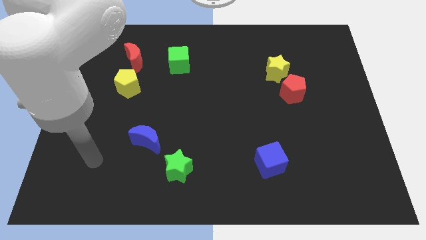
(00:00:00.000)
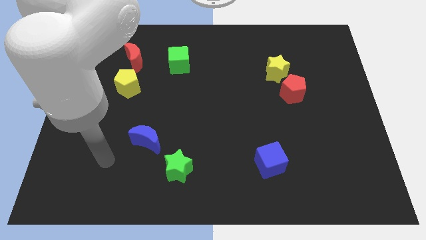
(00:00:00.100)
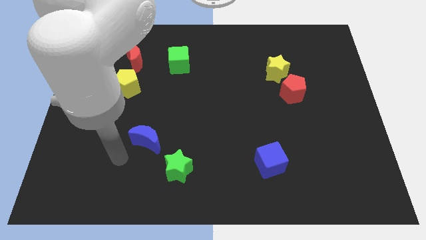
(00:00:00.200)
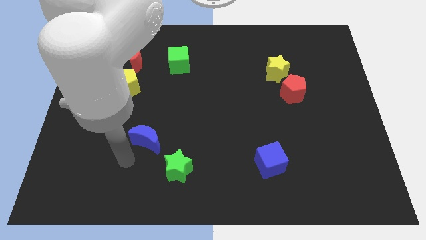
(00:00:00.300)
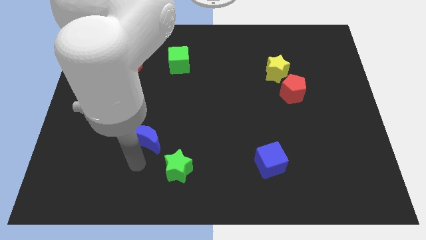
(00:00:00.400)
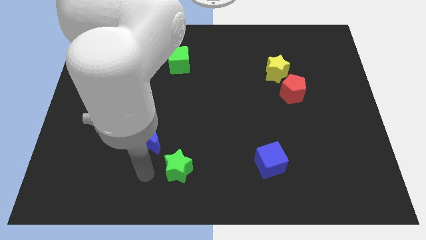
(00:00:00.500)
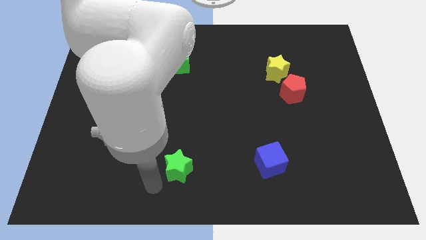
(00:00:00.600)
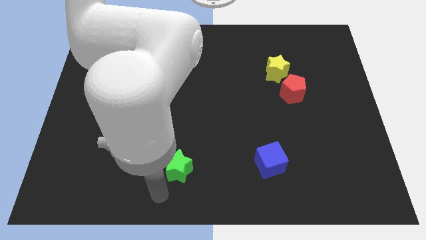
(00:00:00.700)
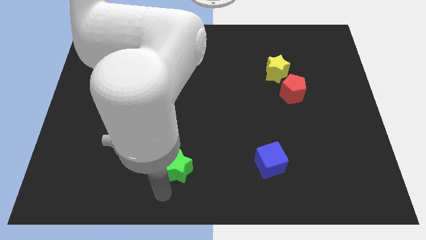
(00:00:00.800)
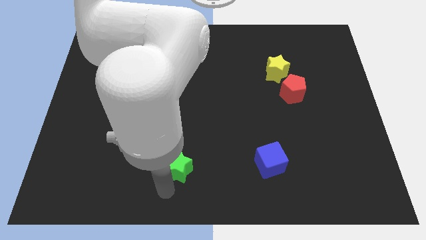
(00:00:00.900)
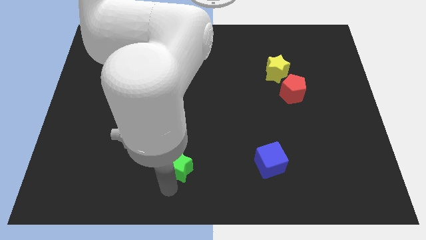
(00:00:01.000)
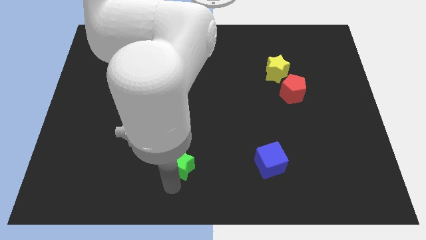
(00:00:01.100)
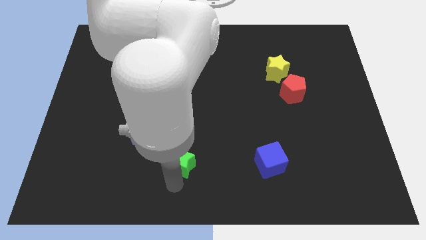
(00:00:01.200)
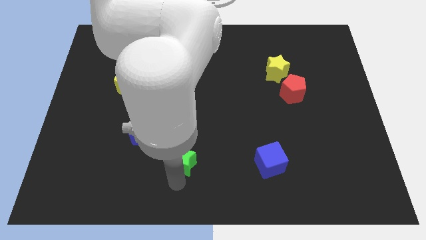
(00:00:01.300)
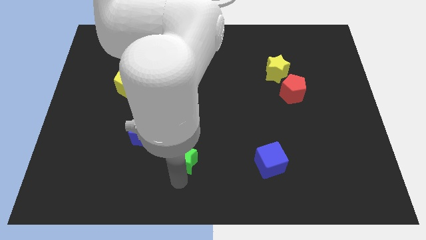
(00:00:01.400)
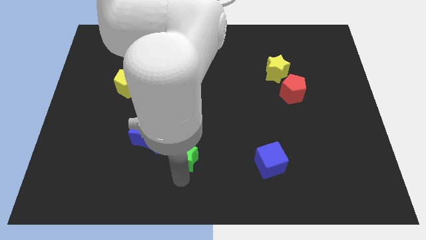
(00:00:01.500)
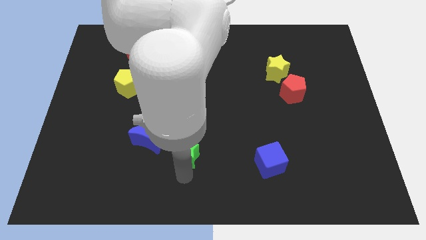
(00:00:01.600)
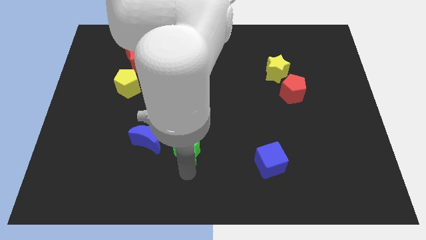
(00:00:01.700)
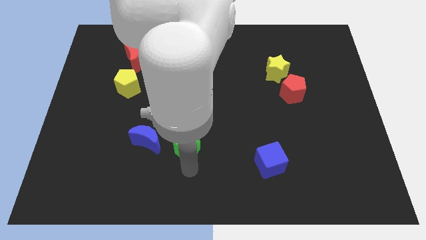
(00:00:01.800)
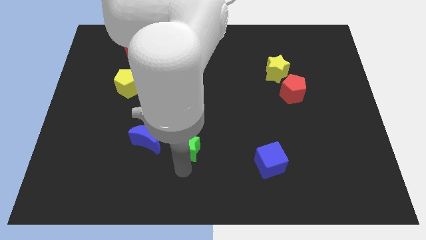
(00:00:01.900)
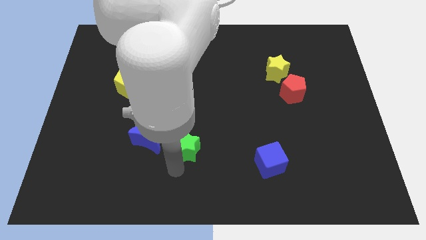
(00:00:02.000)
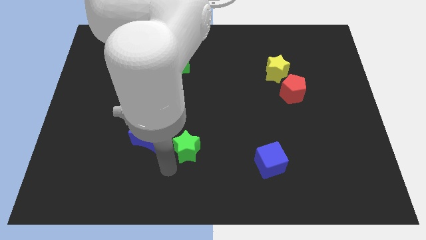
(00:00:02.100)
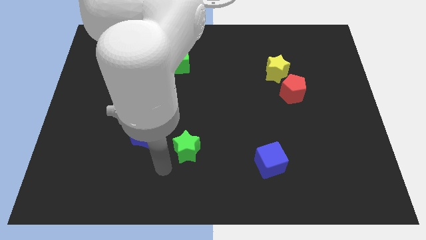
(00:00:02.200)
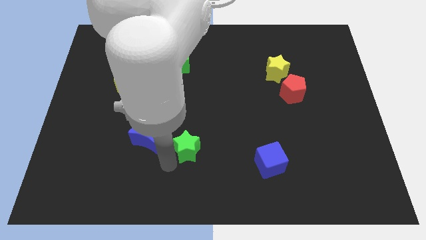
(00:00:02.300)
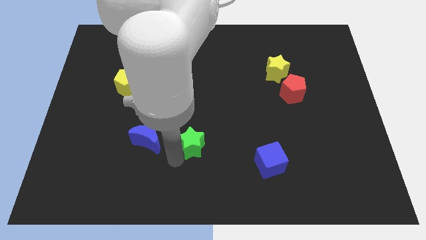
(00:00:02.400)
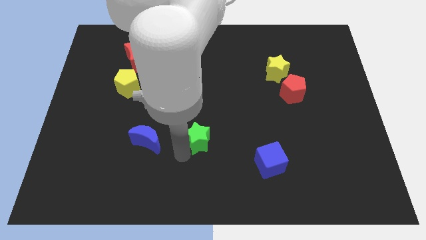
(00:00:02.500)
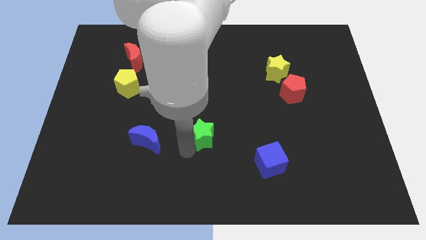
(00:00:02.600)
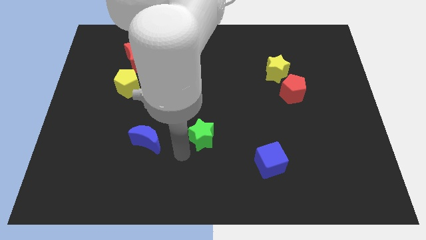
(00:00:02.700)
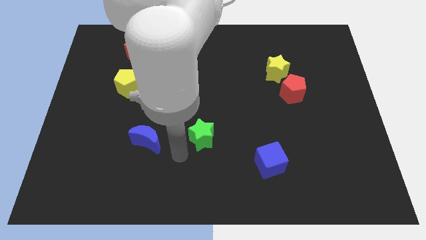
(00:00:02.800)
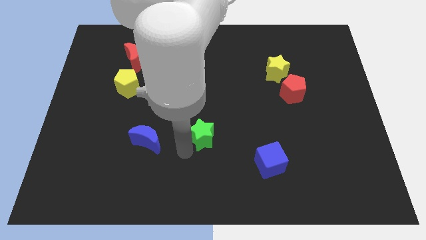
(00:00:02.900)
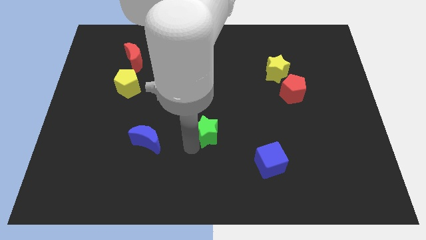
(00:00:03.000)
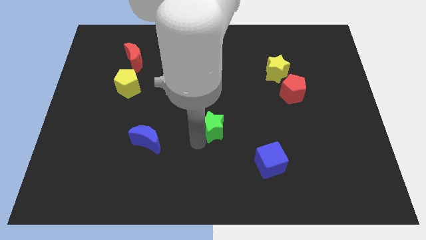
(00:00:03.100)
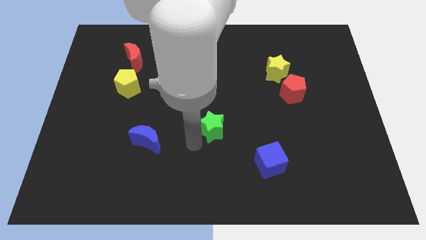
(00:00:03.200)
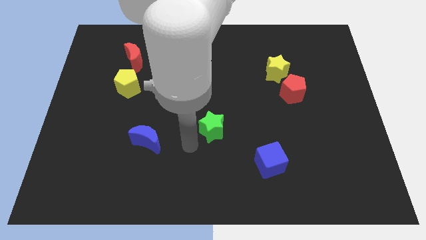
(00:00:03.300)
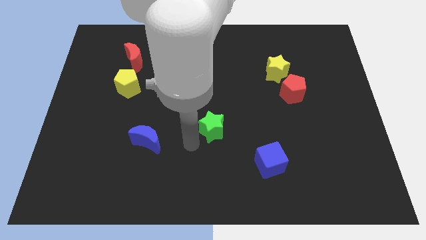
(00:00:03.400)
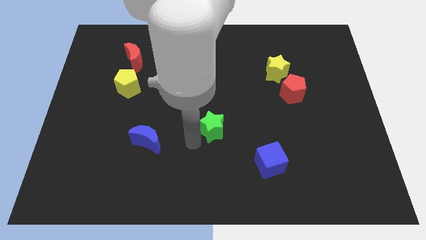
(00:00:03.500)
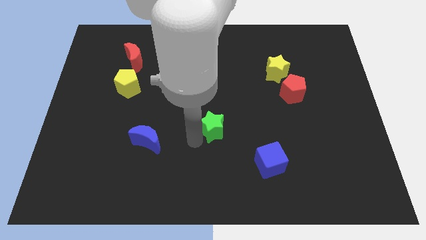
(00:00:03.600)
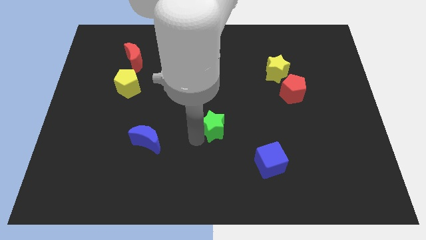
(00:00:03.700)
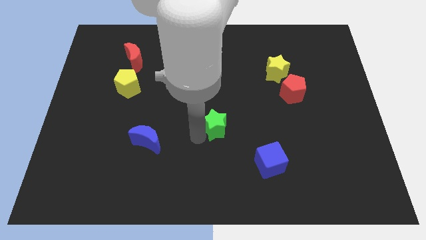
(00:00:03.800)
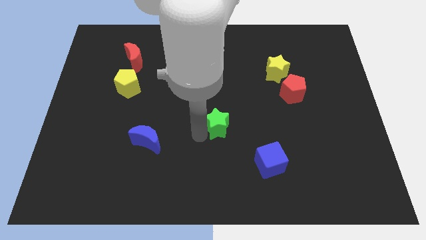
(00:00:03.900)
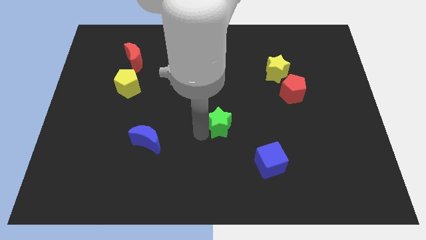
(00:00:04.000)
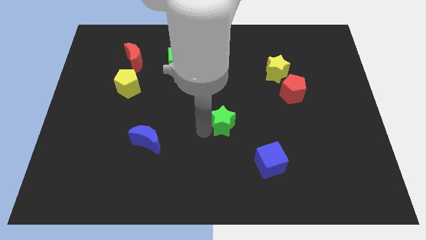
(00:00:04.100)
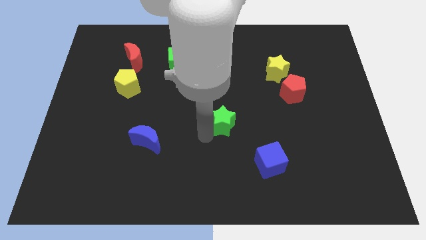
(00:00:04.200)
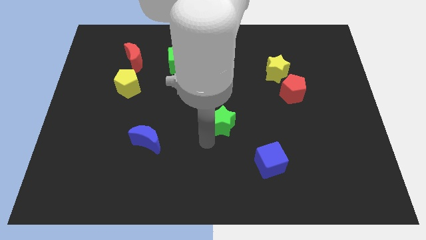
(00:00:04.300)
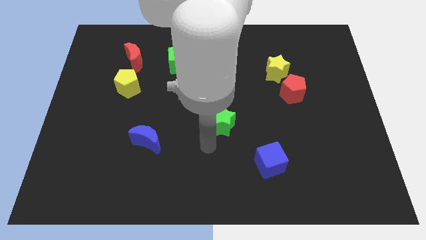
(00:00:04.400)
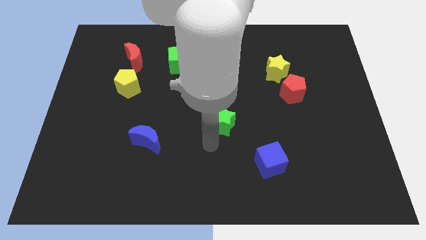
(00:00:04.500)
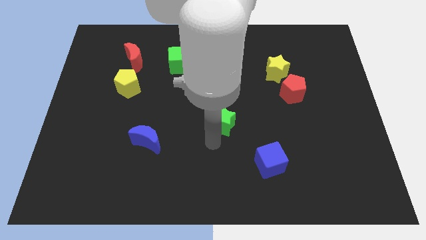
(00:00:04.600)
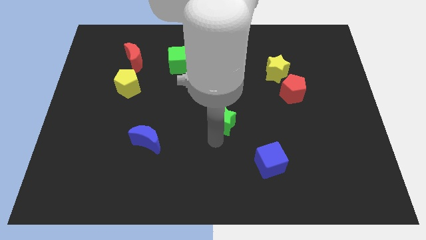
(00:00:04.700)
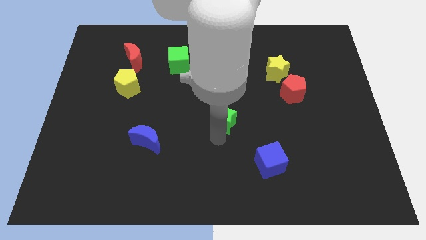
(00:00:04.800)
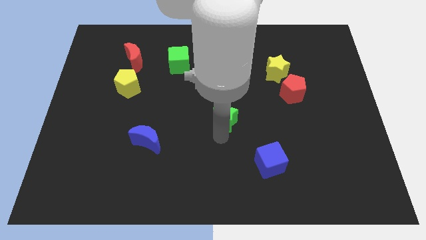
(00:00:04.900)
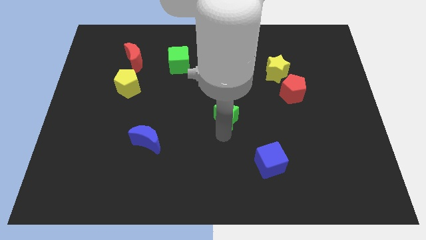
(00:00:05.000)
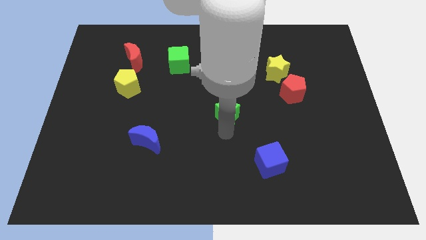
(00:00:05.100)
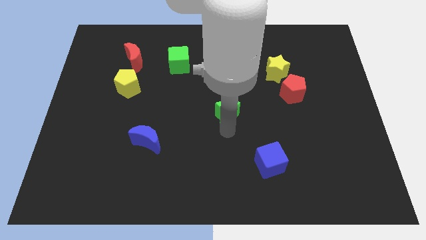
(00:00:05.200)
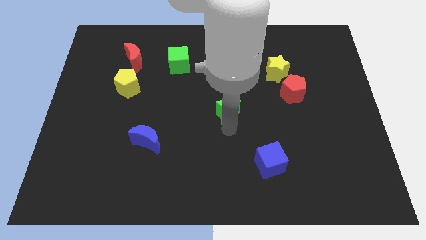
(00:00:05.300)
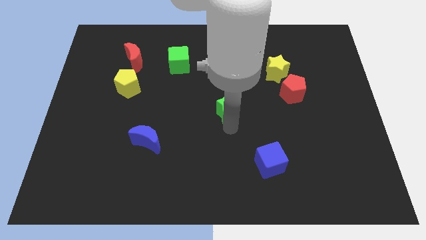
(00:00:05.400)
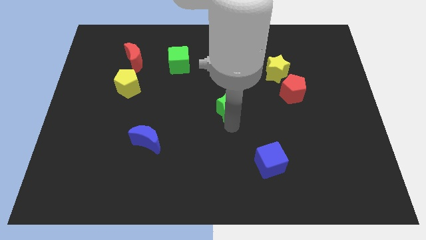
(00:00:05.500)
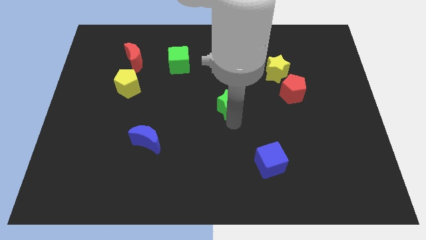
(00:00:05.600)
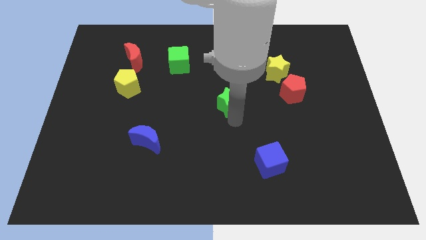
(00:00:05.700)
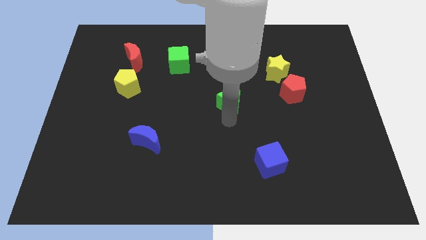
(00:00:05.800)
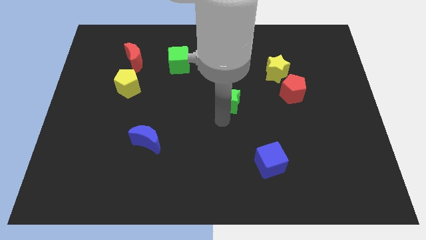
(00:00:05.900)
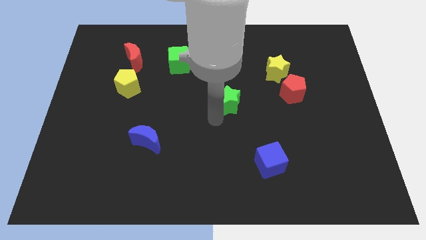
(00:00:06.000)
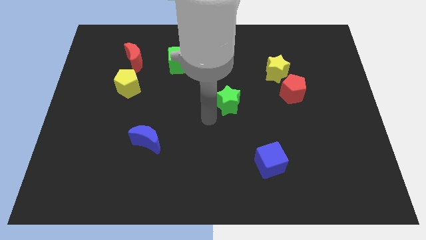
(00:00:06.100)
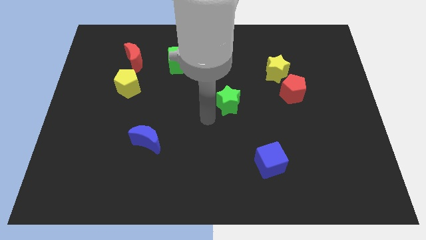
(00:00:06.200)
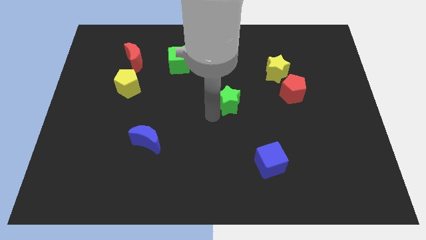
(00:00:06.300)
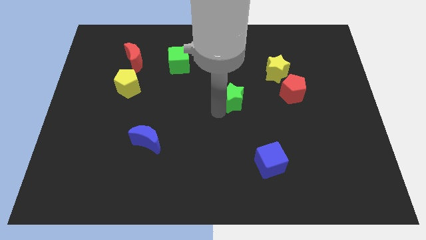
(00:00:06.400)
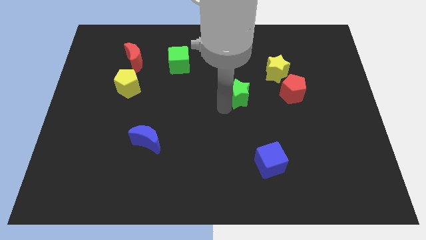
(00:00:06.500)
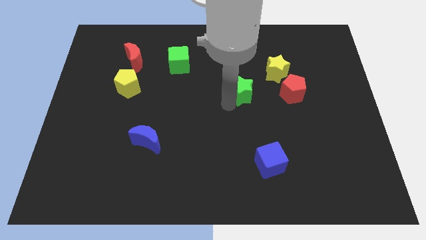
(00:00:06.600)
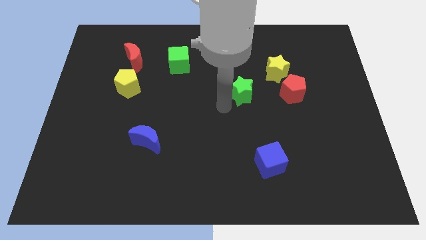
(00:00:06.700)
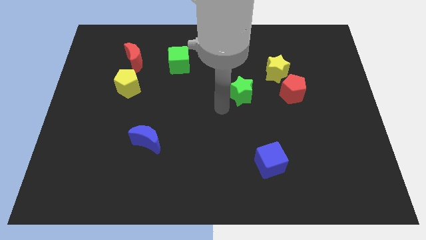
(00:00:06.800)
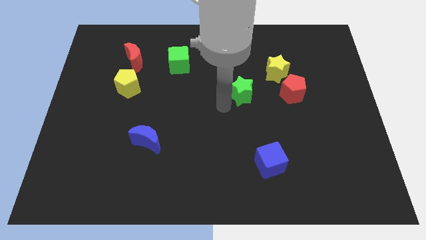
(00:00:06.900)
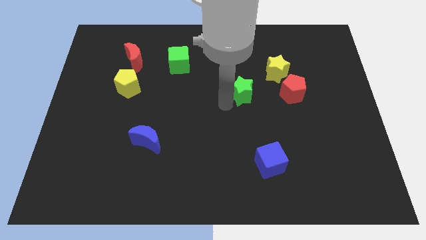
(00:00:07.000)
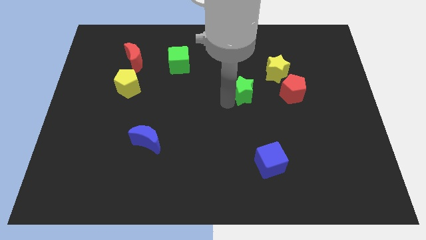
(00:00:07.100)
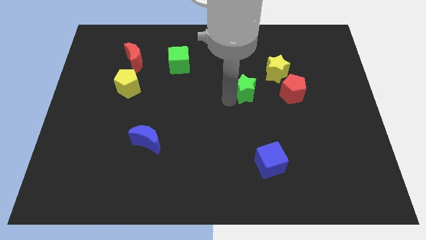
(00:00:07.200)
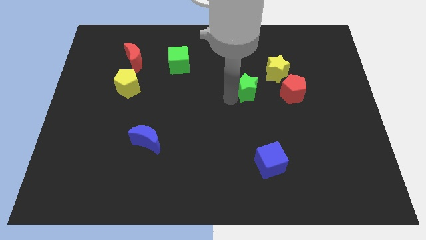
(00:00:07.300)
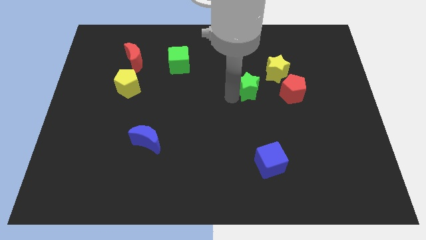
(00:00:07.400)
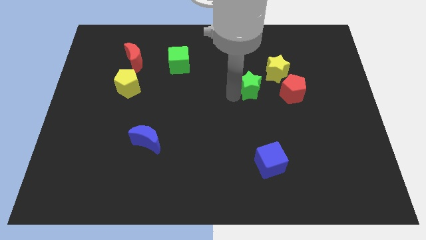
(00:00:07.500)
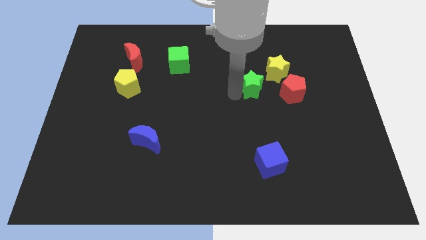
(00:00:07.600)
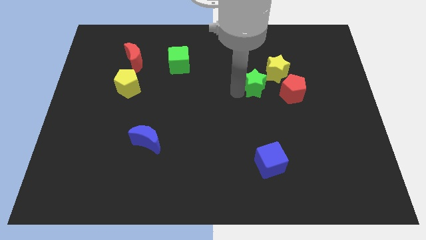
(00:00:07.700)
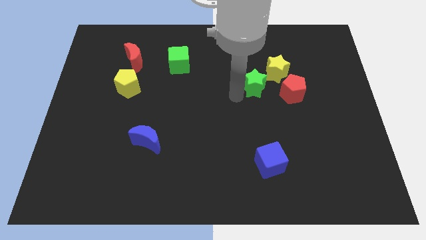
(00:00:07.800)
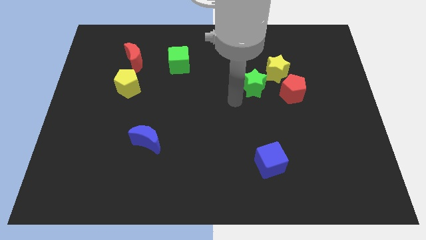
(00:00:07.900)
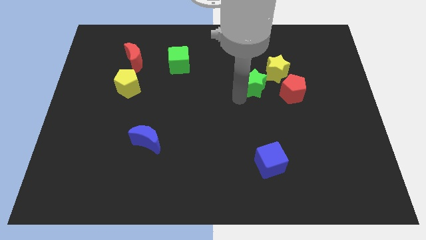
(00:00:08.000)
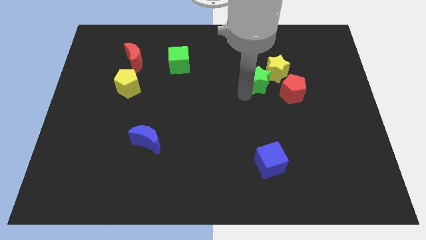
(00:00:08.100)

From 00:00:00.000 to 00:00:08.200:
put the green star towards the yellow star
